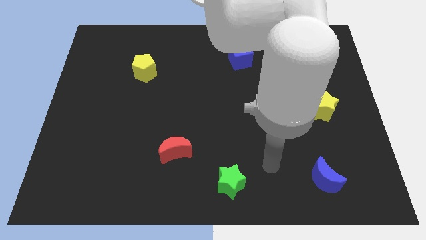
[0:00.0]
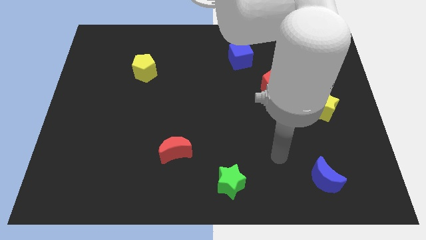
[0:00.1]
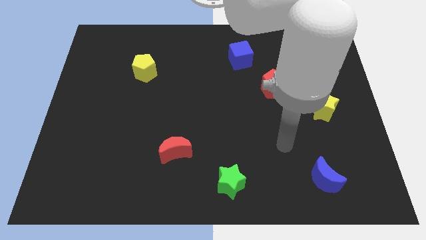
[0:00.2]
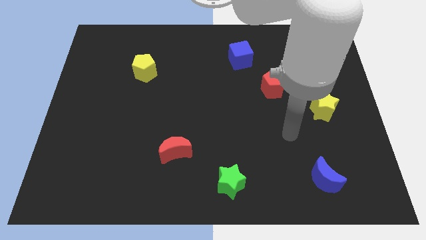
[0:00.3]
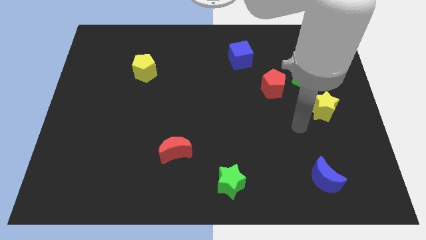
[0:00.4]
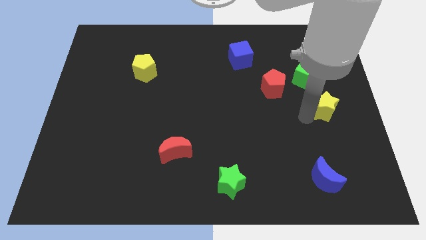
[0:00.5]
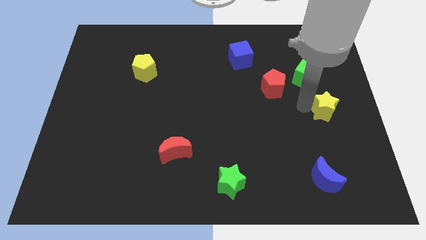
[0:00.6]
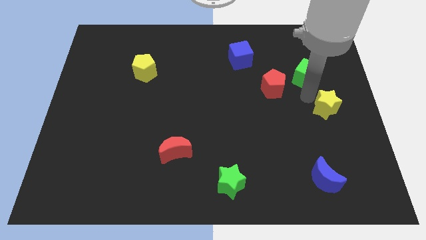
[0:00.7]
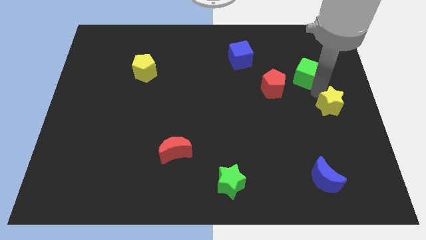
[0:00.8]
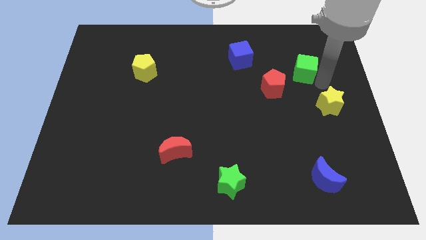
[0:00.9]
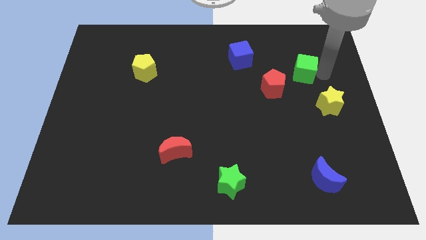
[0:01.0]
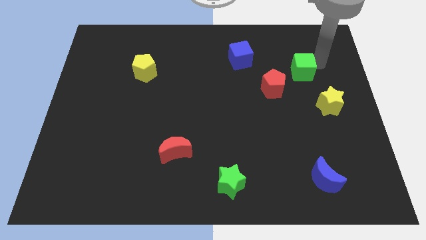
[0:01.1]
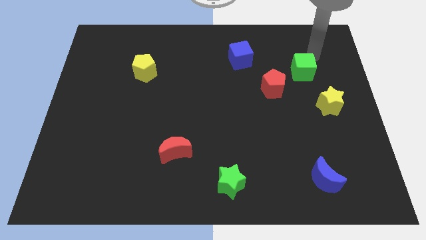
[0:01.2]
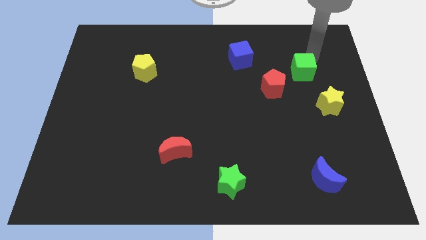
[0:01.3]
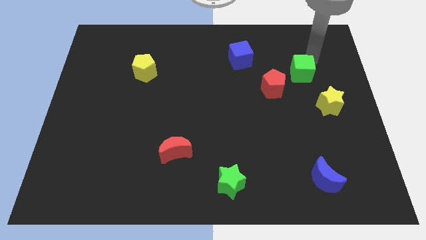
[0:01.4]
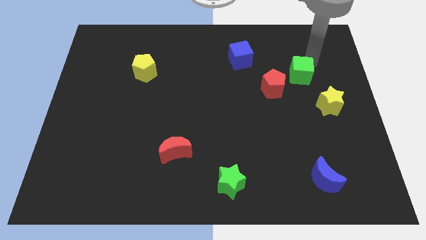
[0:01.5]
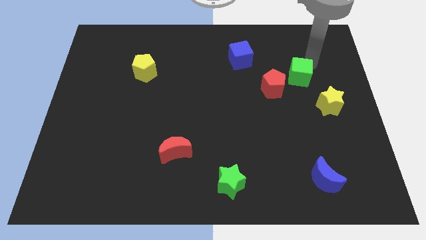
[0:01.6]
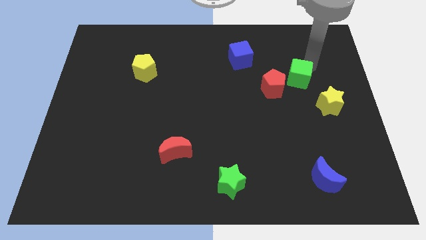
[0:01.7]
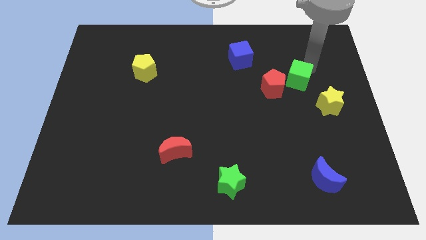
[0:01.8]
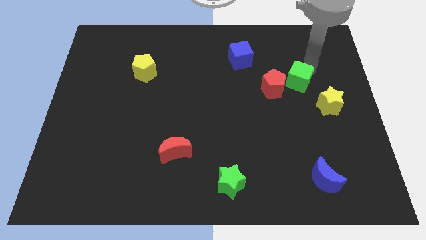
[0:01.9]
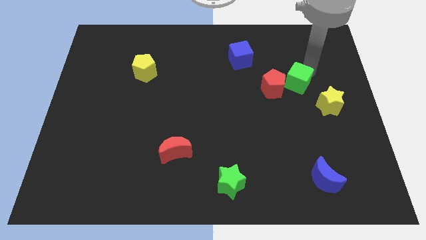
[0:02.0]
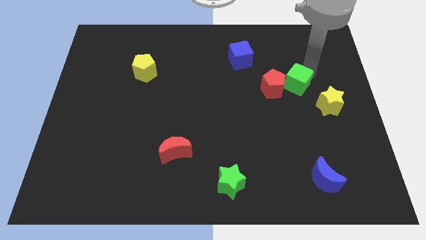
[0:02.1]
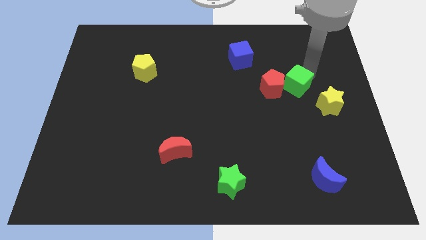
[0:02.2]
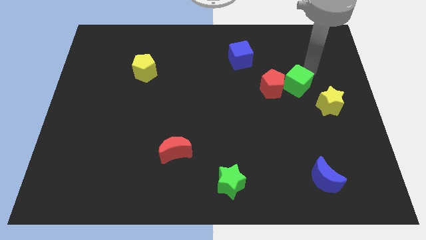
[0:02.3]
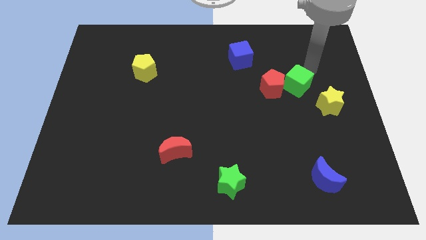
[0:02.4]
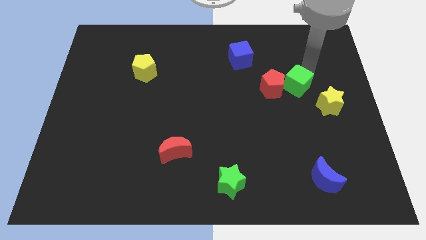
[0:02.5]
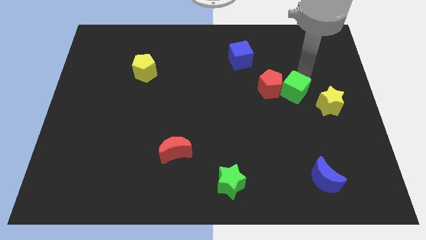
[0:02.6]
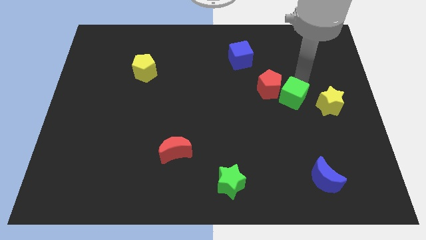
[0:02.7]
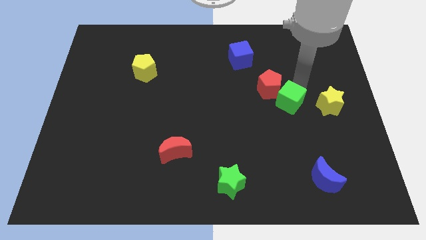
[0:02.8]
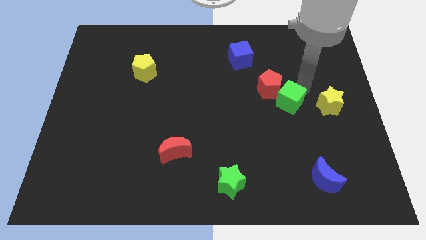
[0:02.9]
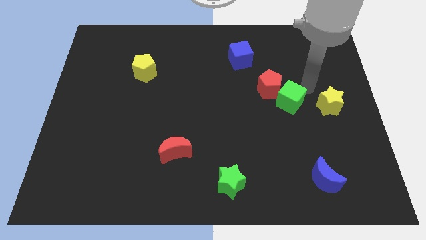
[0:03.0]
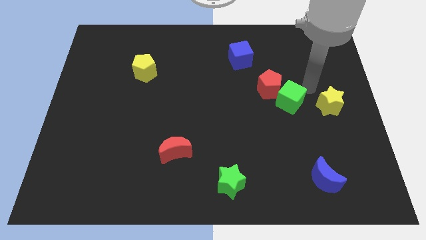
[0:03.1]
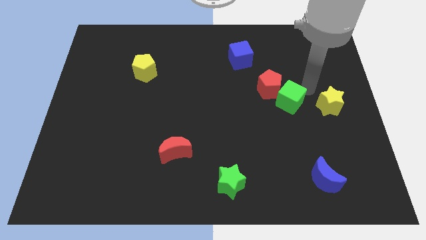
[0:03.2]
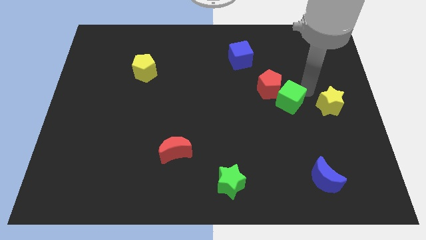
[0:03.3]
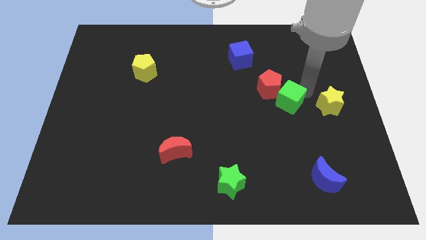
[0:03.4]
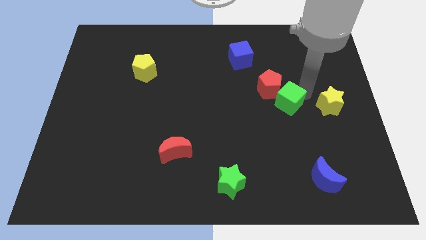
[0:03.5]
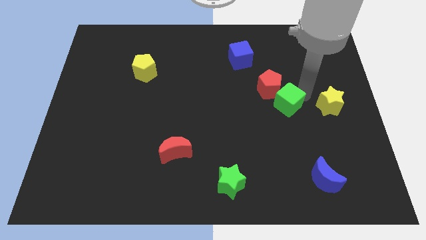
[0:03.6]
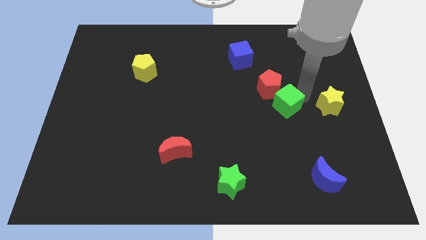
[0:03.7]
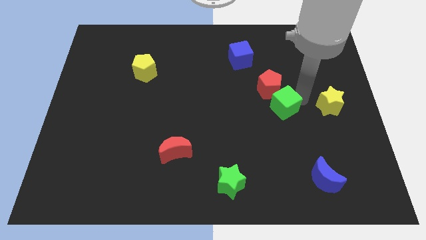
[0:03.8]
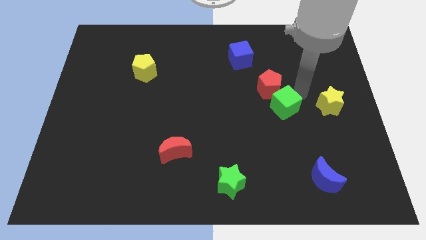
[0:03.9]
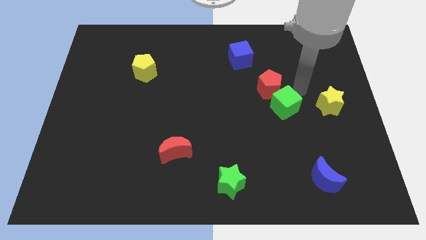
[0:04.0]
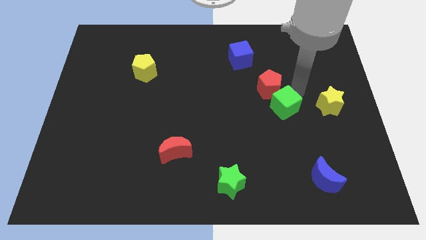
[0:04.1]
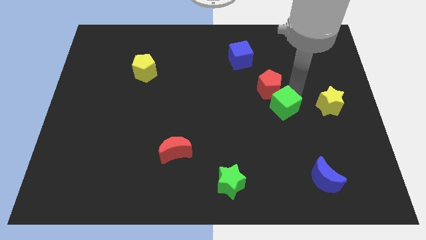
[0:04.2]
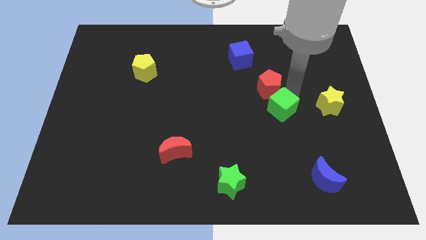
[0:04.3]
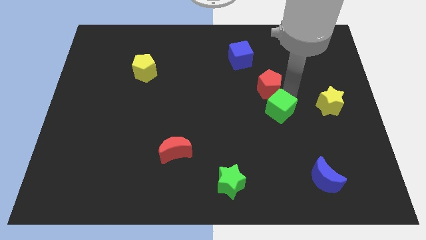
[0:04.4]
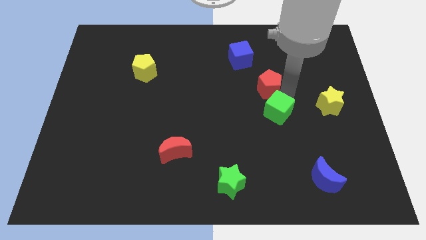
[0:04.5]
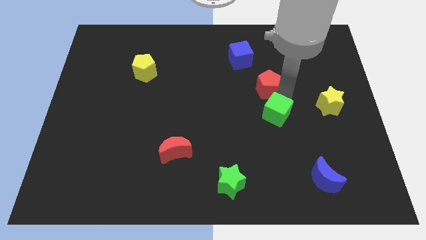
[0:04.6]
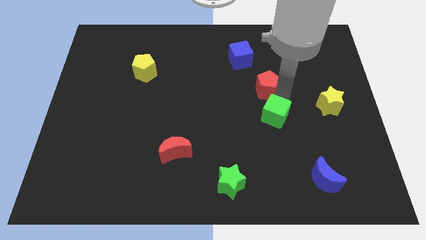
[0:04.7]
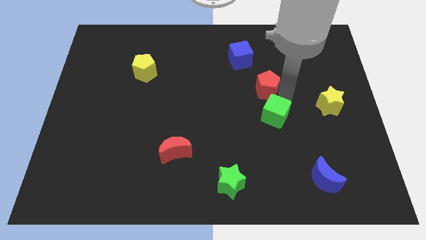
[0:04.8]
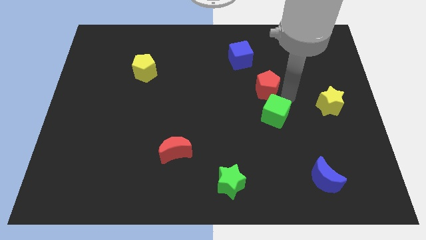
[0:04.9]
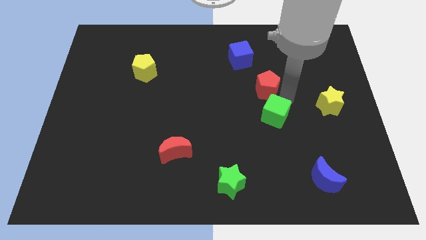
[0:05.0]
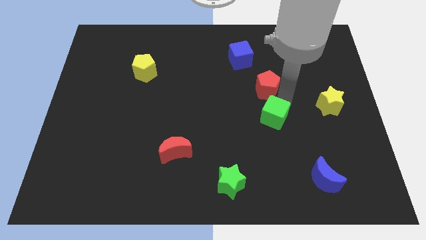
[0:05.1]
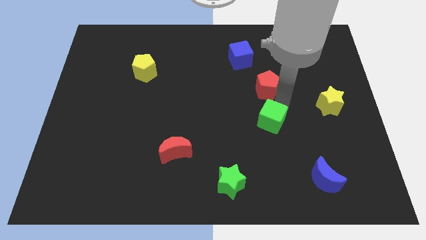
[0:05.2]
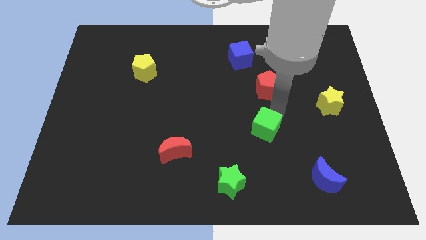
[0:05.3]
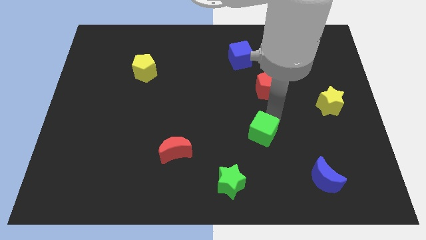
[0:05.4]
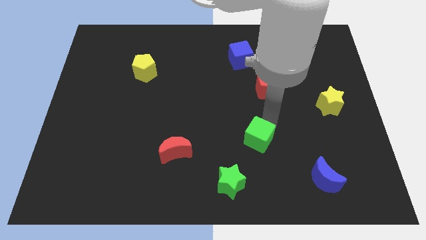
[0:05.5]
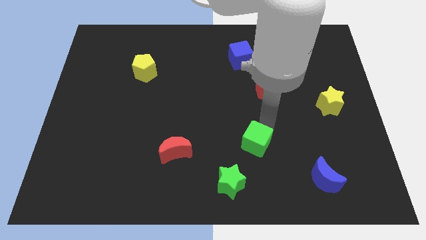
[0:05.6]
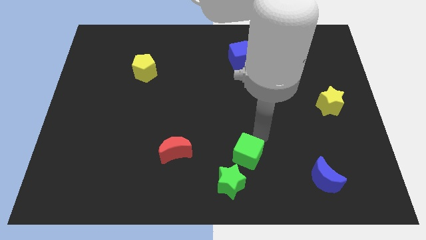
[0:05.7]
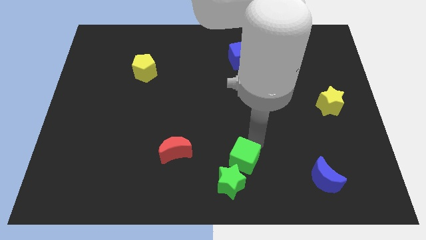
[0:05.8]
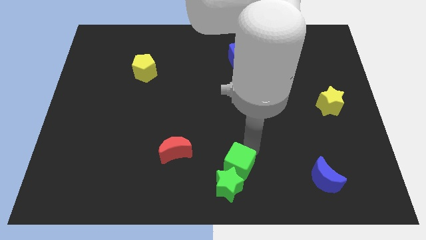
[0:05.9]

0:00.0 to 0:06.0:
push the green cube close to the green star

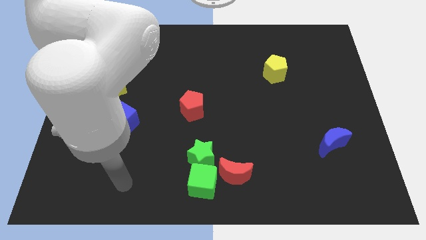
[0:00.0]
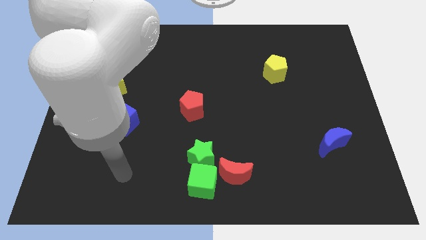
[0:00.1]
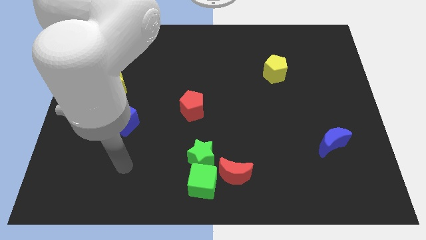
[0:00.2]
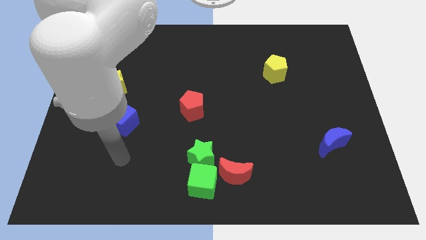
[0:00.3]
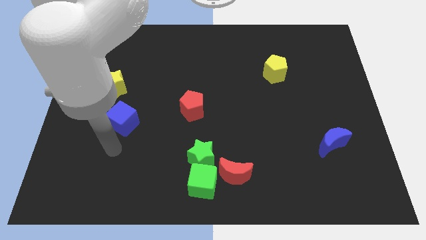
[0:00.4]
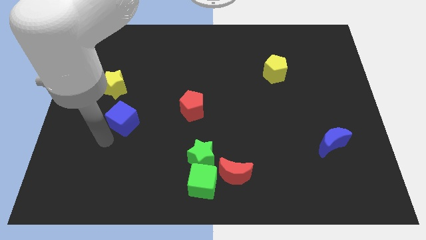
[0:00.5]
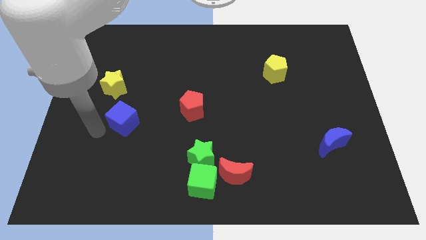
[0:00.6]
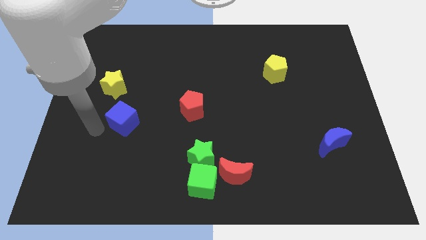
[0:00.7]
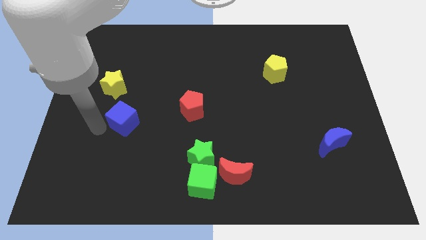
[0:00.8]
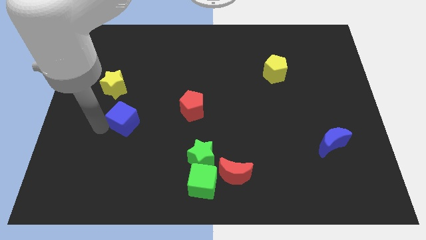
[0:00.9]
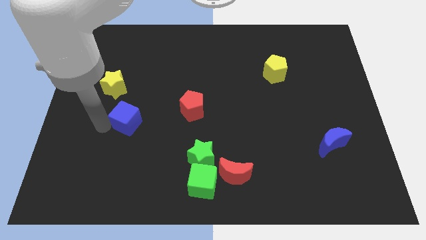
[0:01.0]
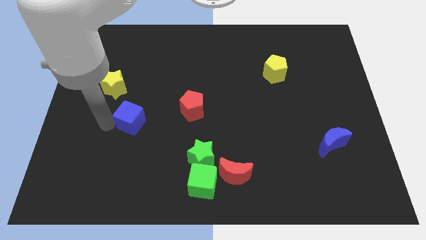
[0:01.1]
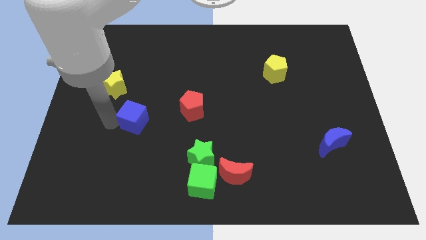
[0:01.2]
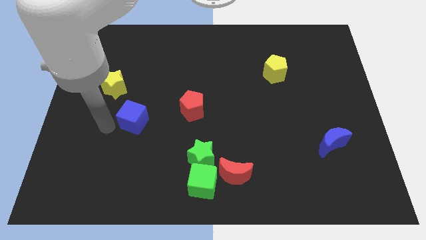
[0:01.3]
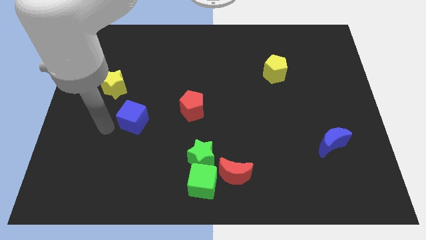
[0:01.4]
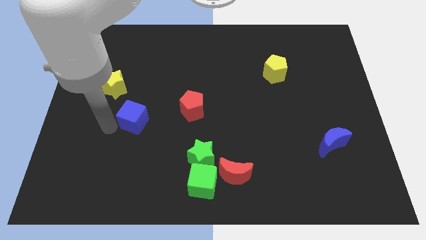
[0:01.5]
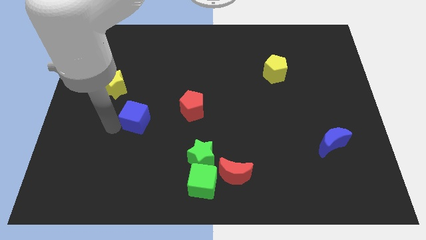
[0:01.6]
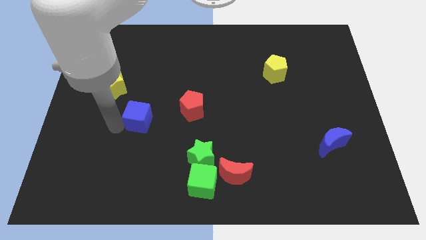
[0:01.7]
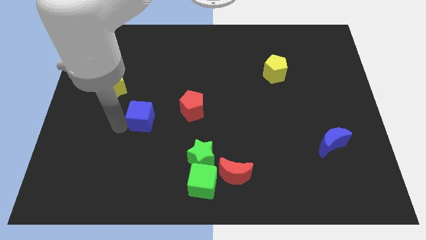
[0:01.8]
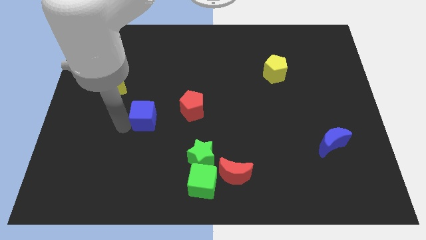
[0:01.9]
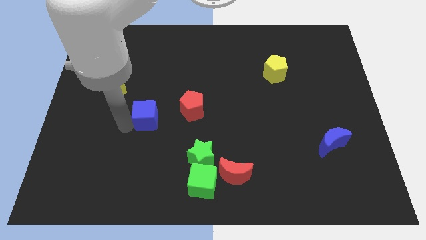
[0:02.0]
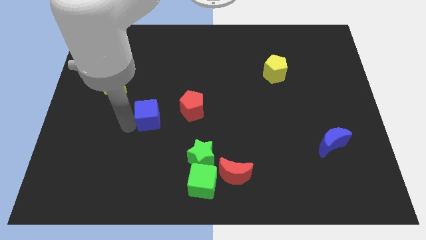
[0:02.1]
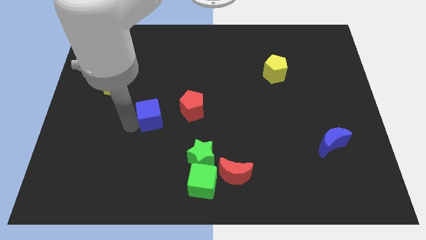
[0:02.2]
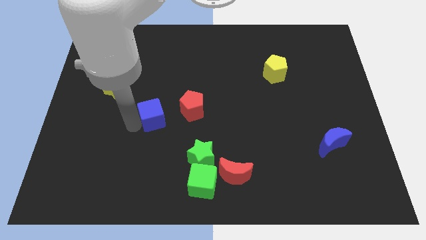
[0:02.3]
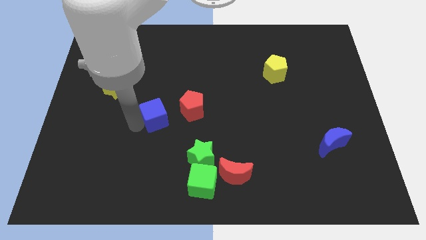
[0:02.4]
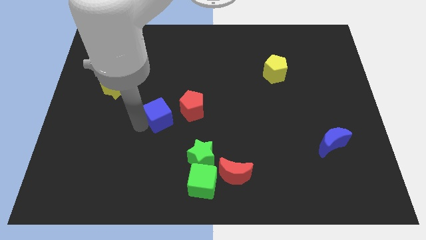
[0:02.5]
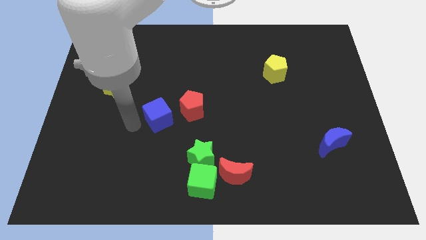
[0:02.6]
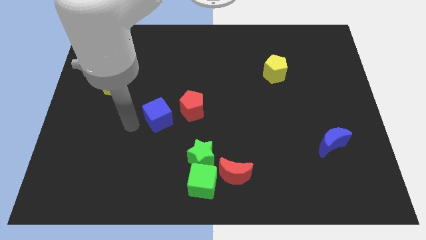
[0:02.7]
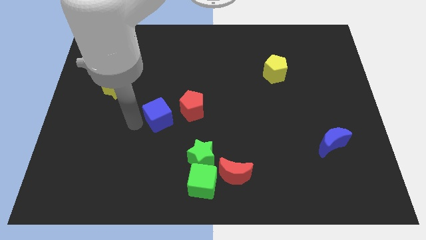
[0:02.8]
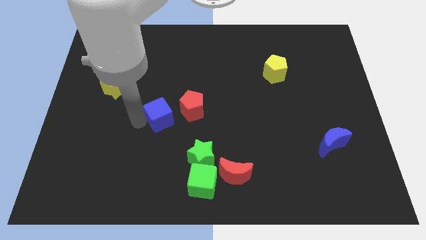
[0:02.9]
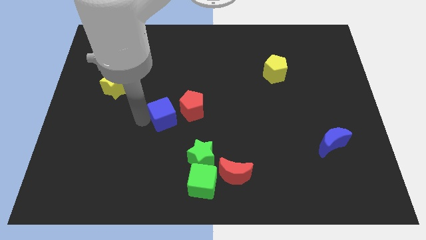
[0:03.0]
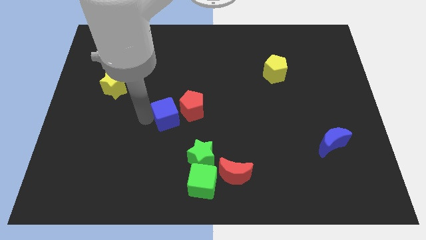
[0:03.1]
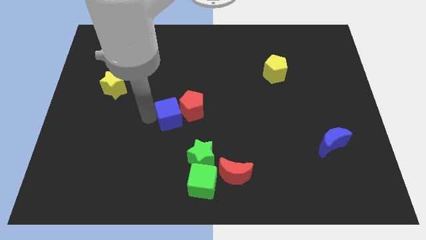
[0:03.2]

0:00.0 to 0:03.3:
push the blue cube next to the red pentagon
